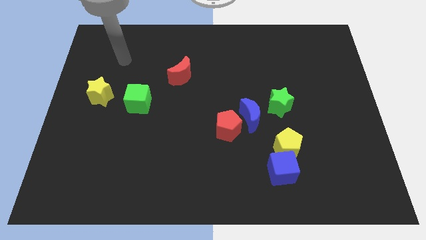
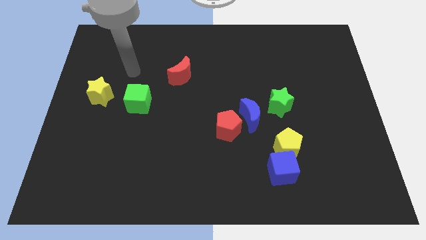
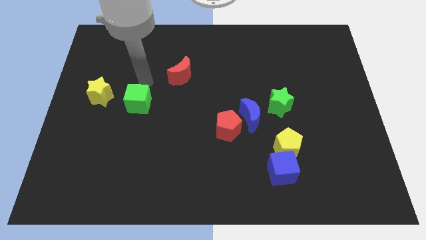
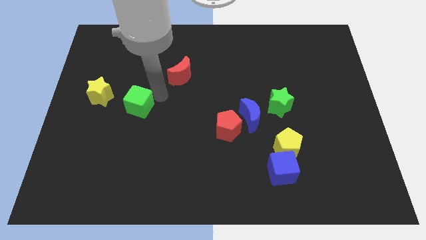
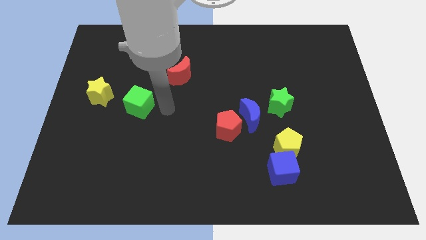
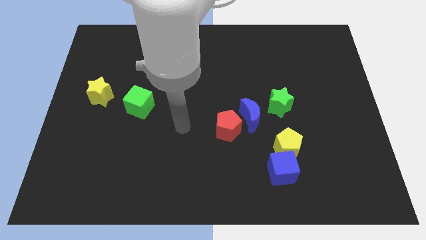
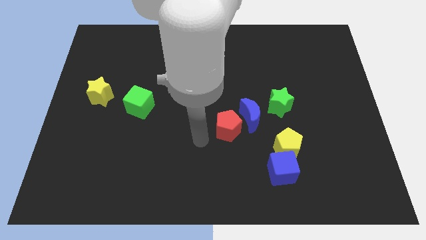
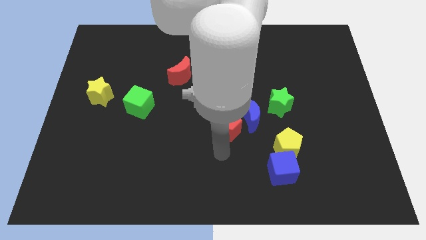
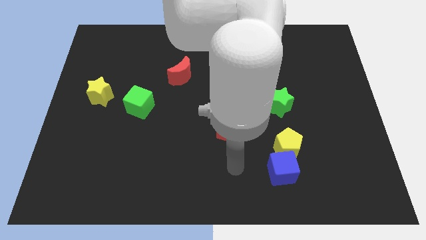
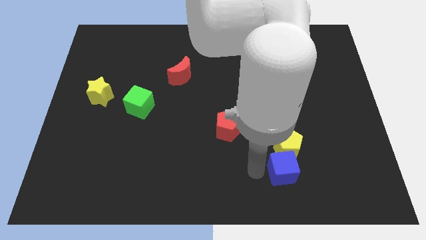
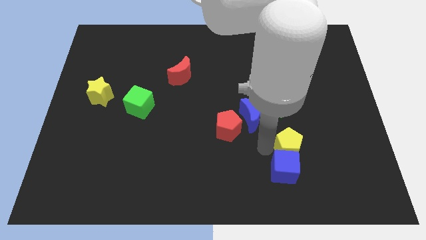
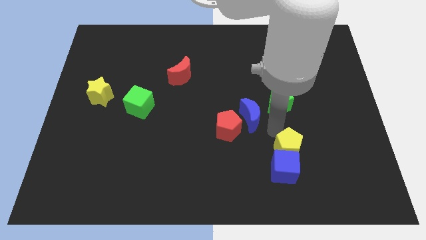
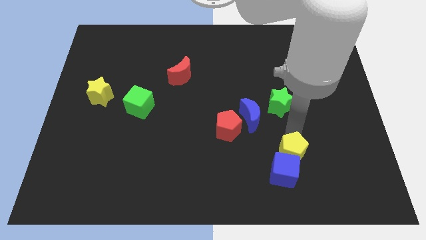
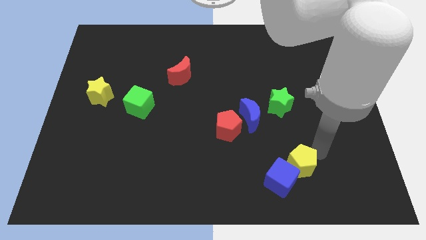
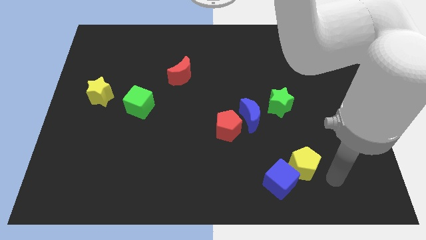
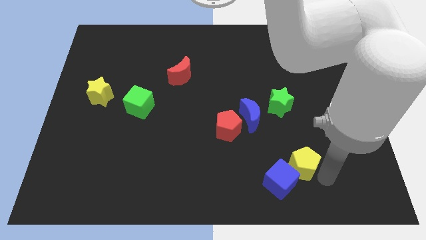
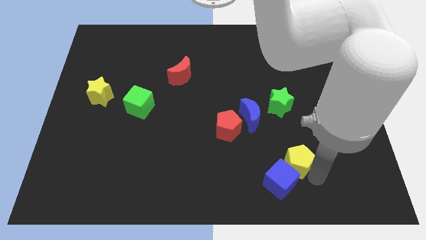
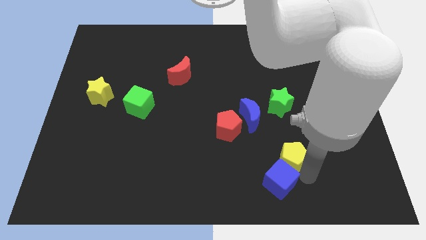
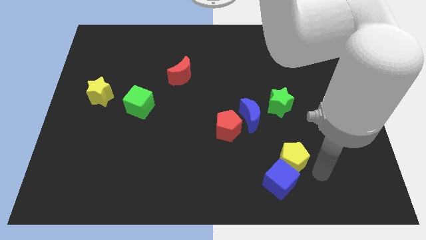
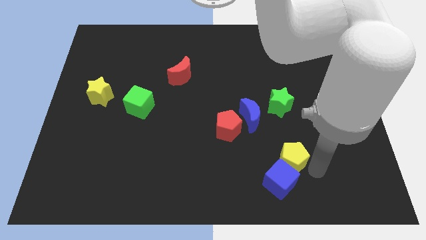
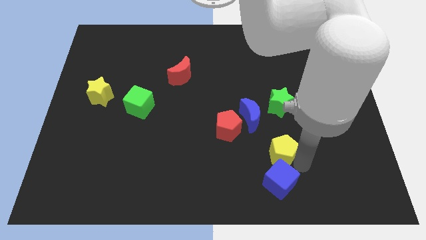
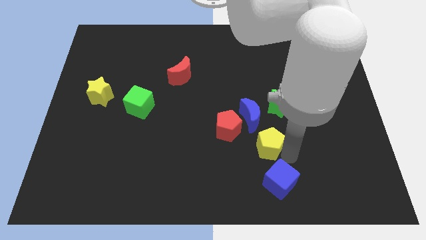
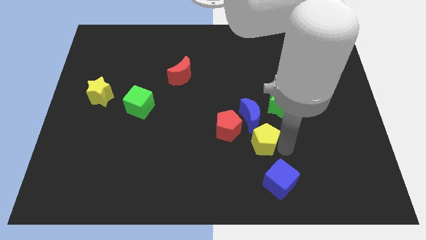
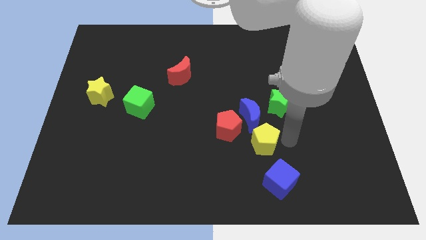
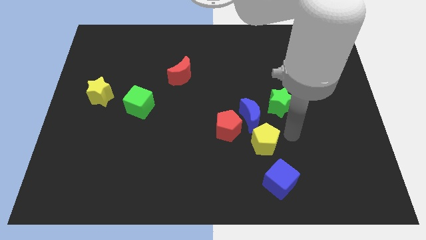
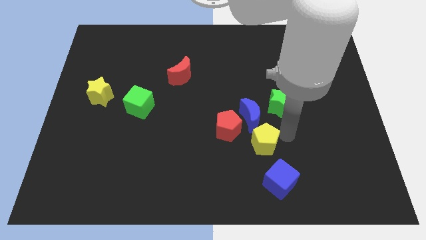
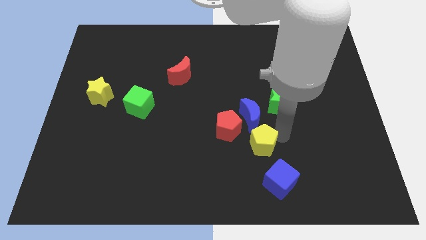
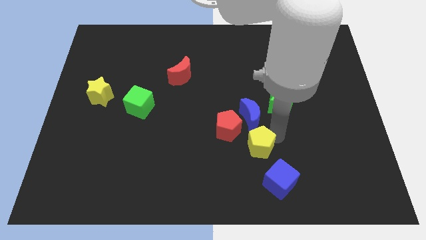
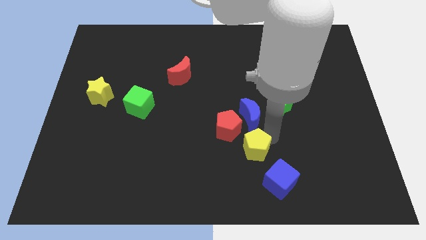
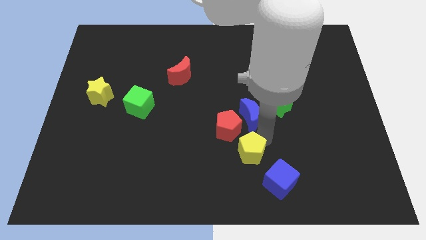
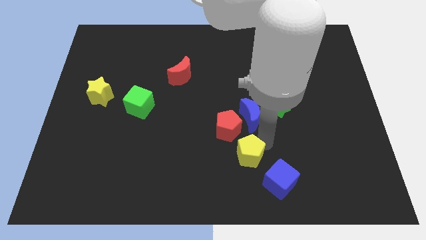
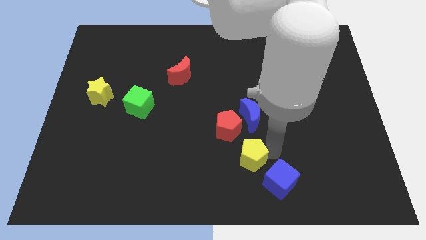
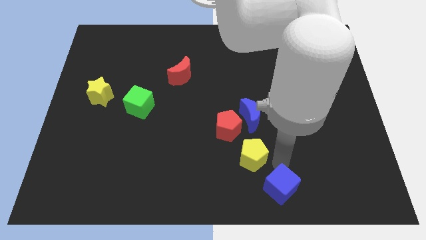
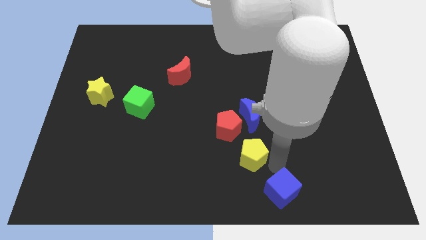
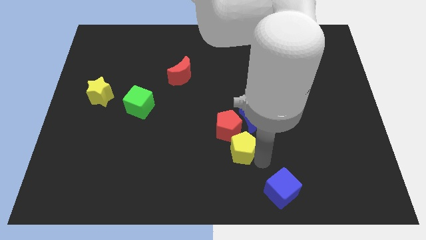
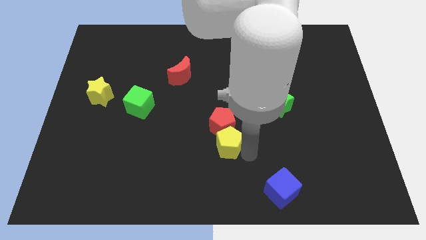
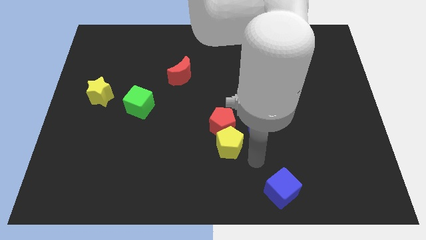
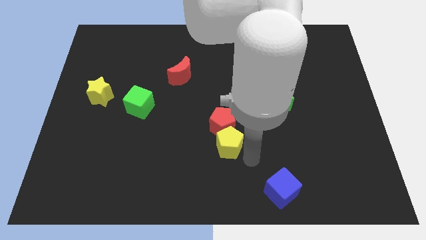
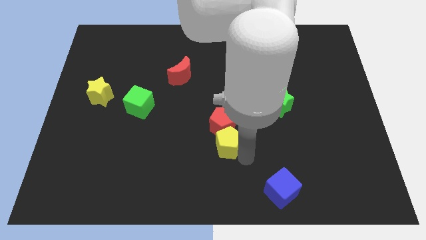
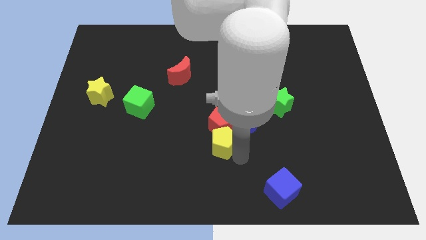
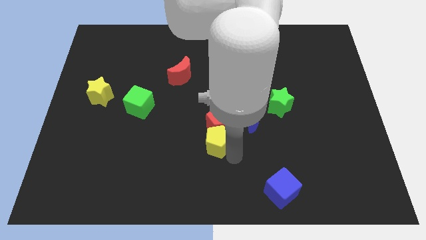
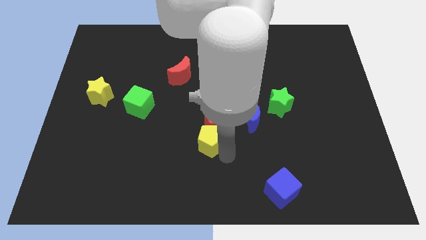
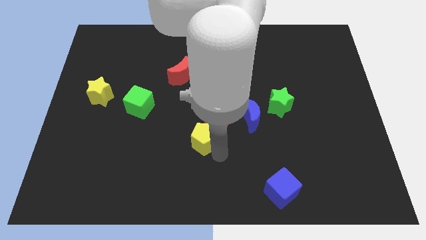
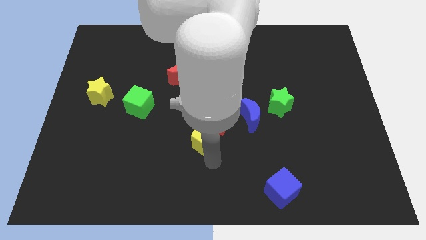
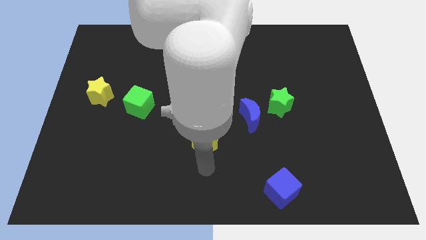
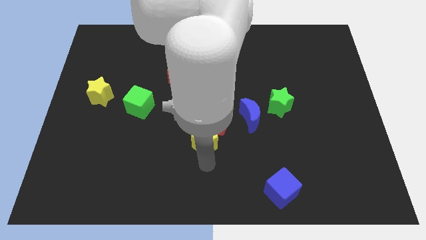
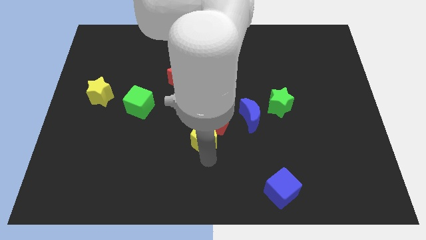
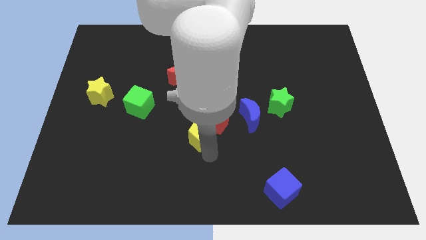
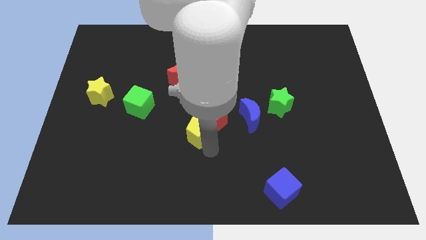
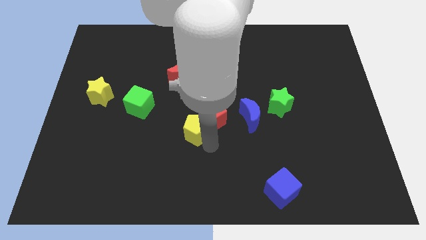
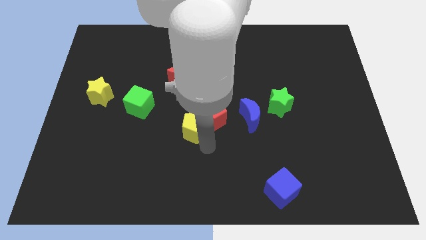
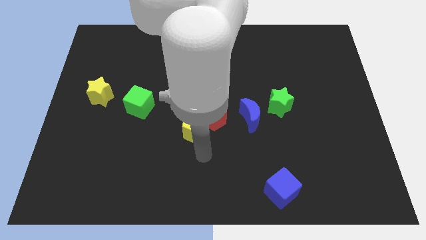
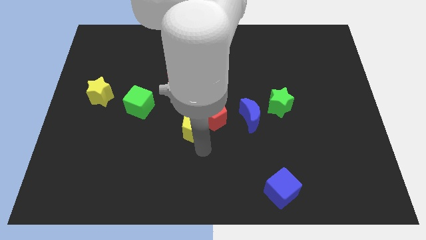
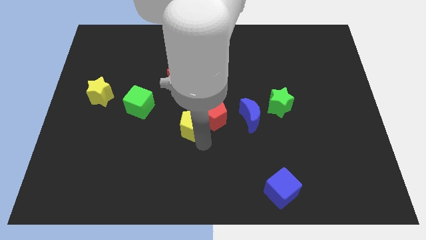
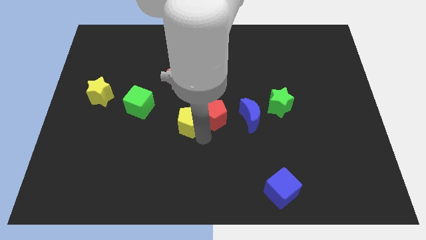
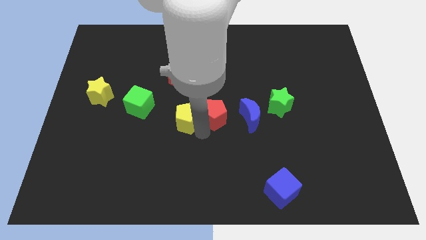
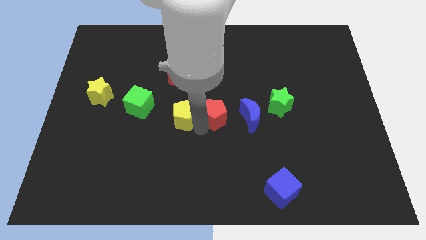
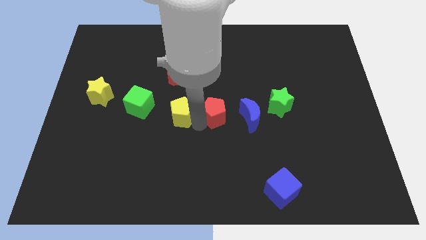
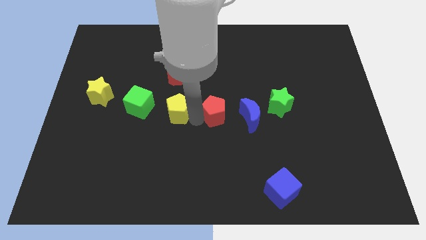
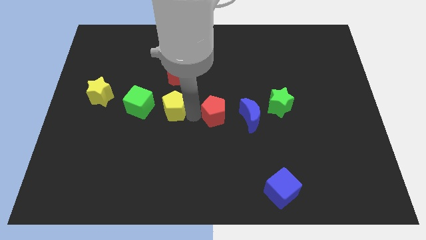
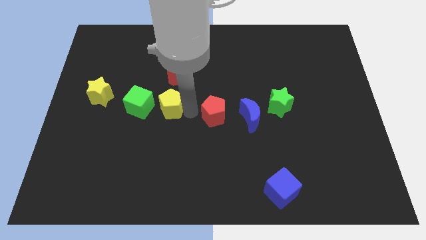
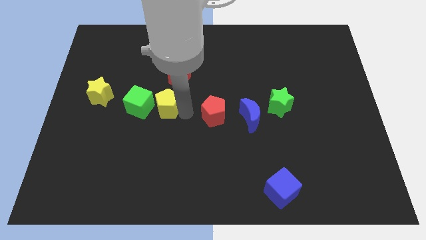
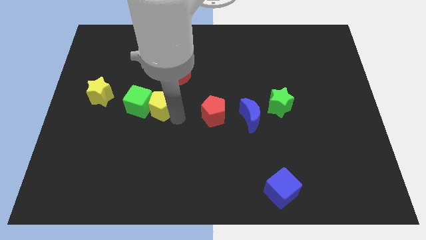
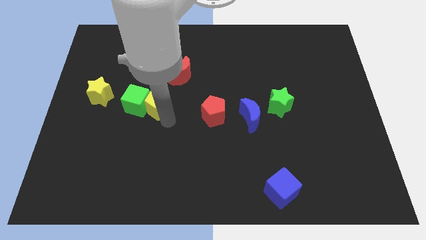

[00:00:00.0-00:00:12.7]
move the yellow pentagon to the right side of the yellow star
